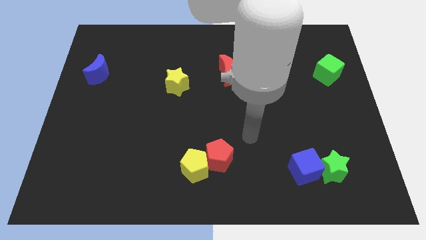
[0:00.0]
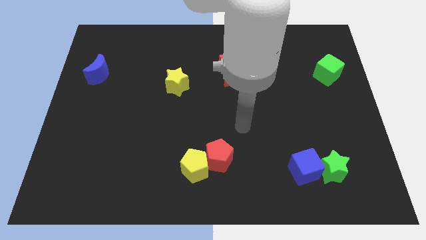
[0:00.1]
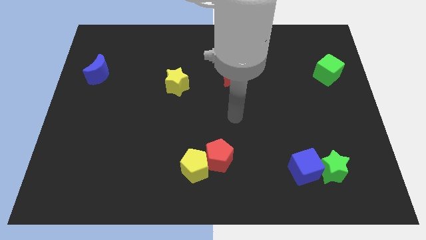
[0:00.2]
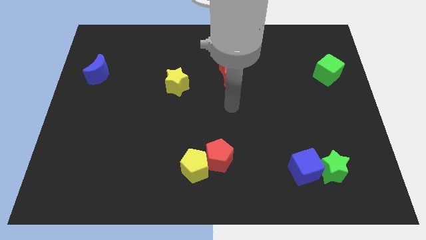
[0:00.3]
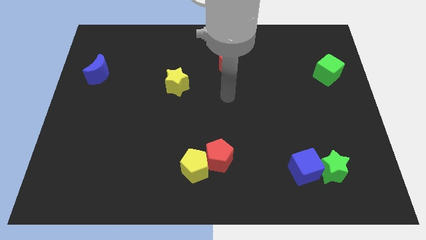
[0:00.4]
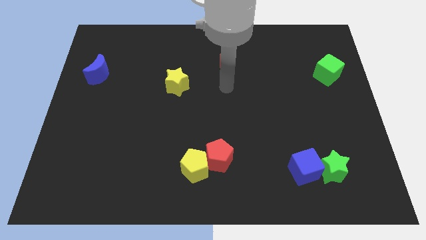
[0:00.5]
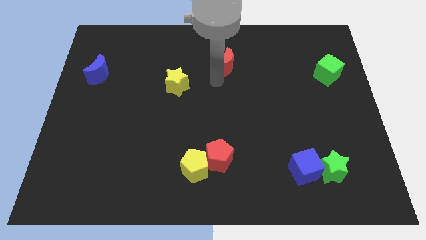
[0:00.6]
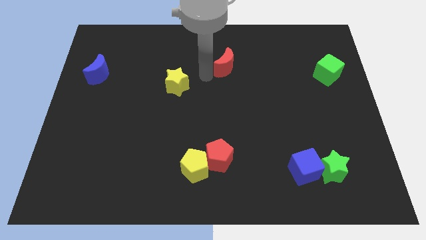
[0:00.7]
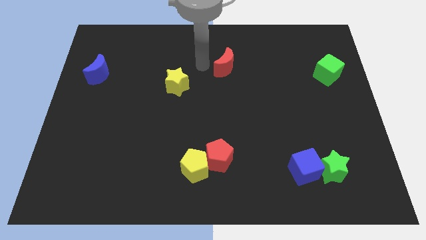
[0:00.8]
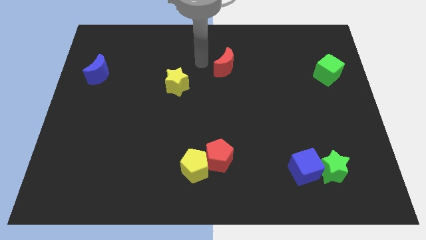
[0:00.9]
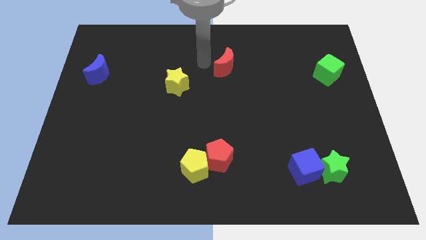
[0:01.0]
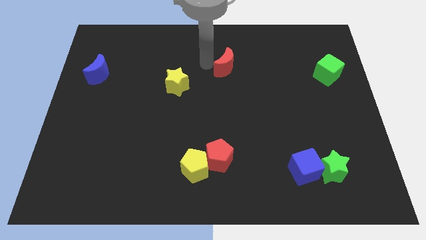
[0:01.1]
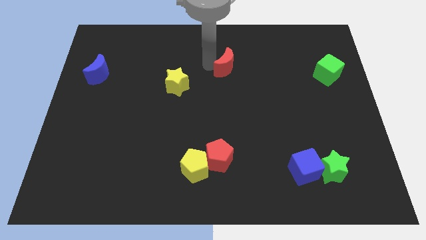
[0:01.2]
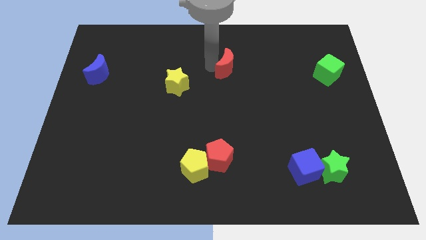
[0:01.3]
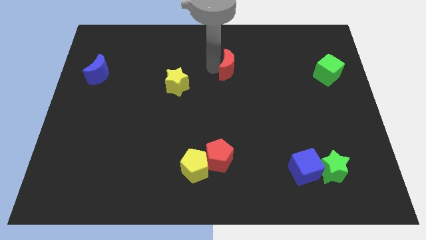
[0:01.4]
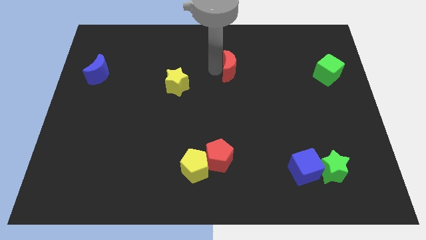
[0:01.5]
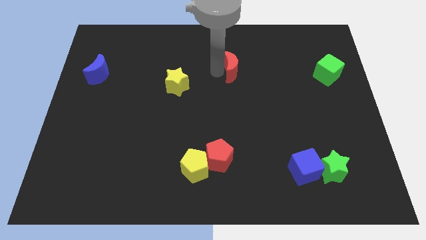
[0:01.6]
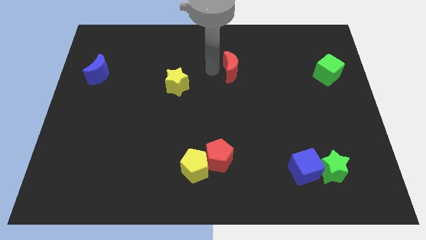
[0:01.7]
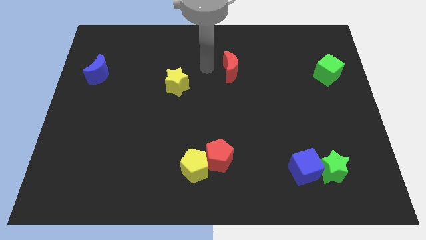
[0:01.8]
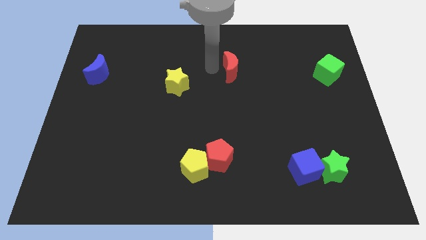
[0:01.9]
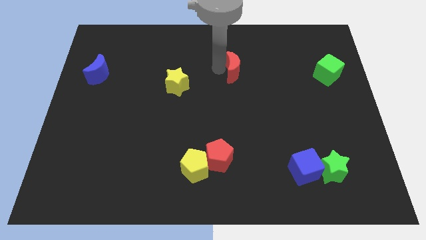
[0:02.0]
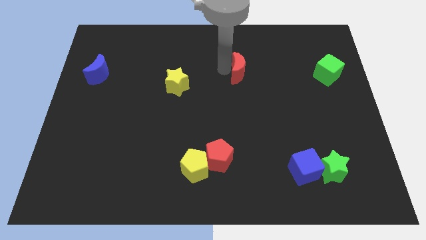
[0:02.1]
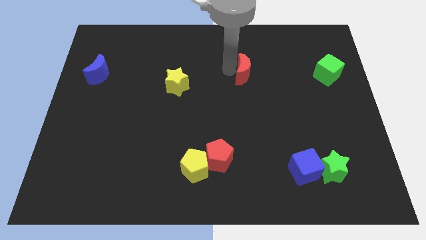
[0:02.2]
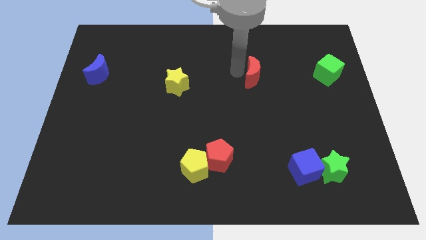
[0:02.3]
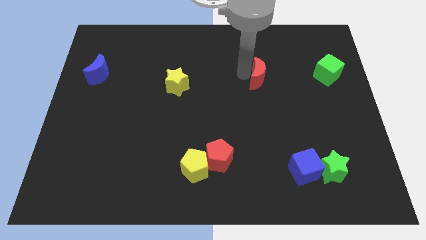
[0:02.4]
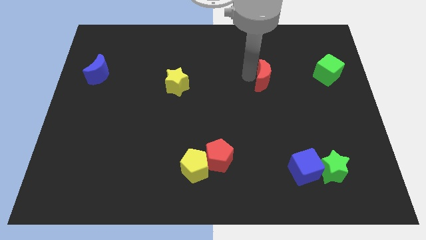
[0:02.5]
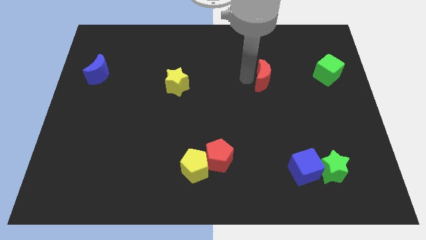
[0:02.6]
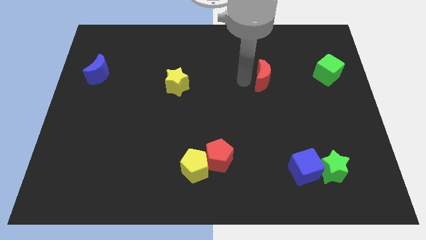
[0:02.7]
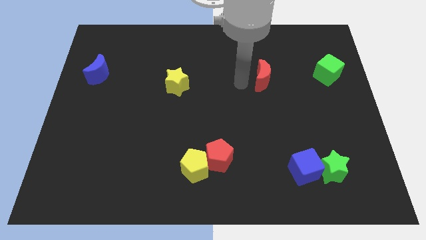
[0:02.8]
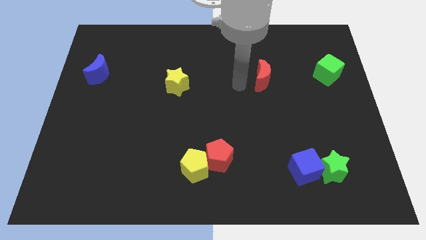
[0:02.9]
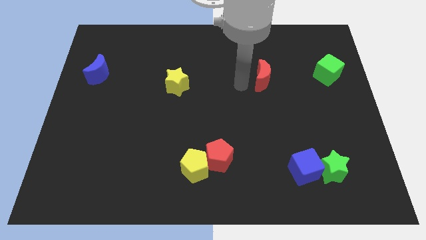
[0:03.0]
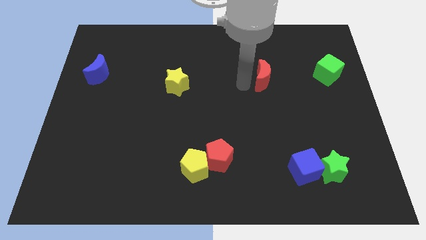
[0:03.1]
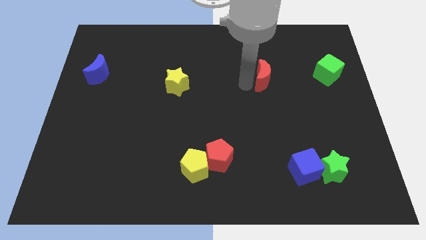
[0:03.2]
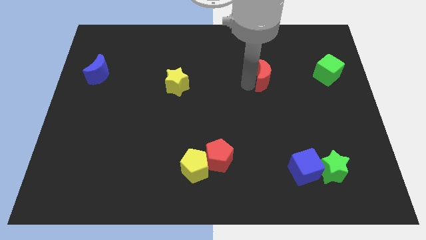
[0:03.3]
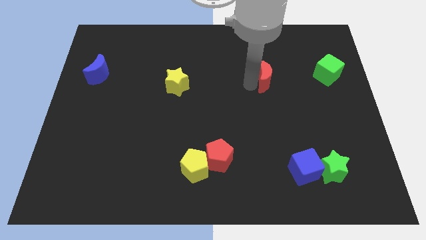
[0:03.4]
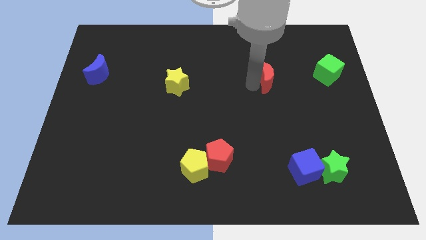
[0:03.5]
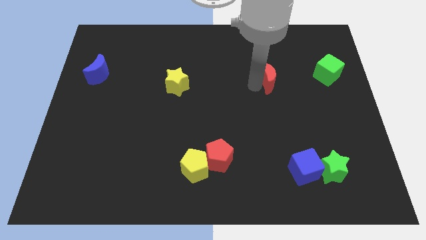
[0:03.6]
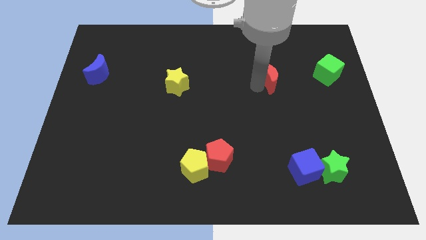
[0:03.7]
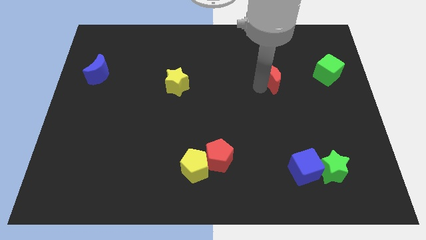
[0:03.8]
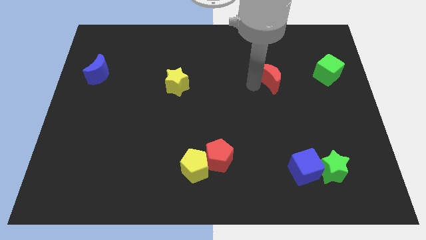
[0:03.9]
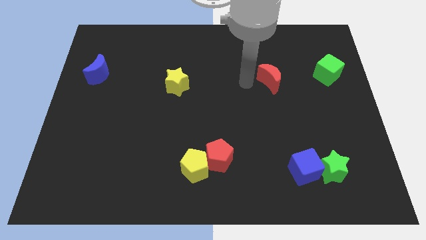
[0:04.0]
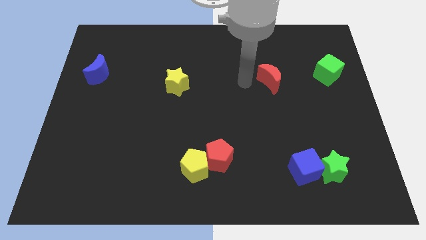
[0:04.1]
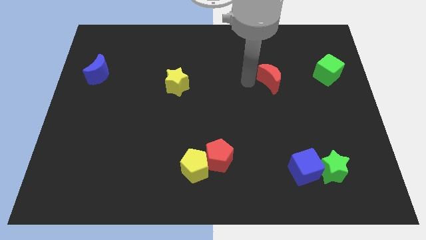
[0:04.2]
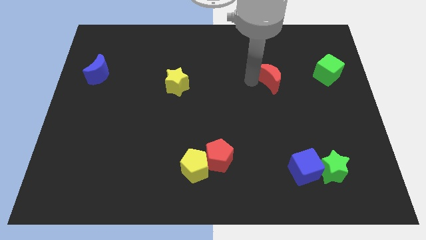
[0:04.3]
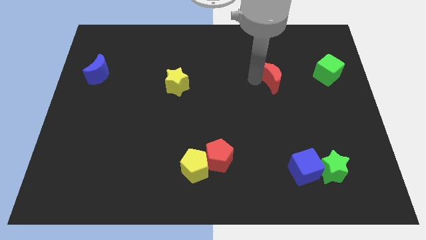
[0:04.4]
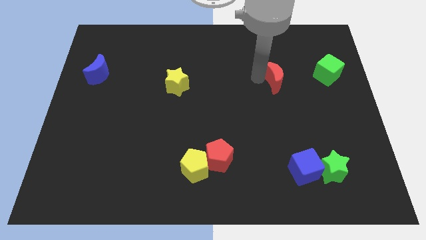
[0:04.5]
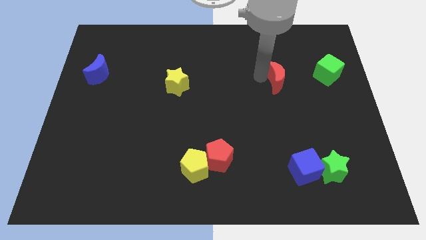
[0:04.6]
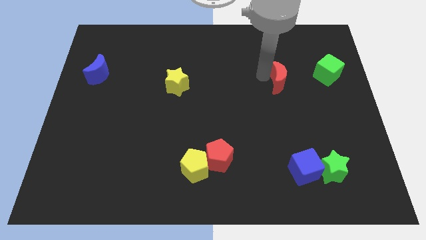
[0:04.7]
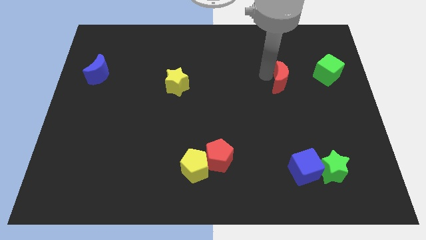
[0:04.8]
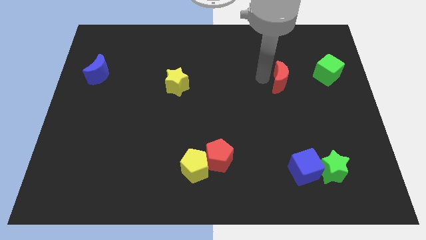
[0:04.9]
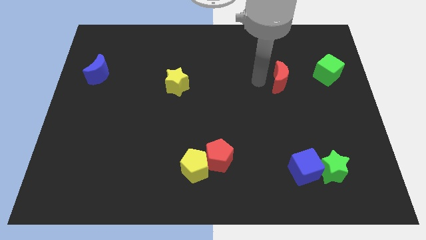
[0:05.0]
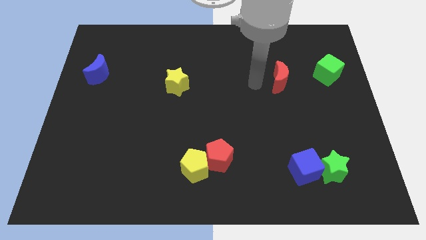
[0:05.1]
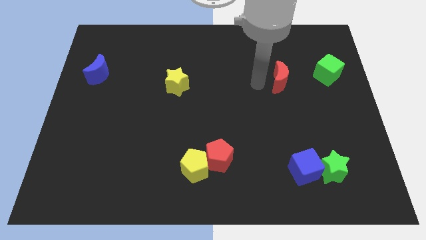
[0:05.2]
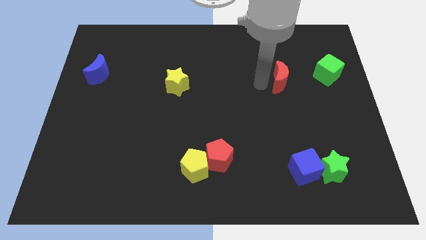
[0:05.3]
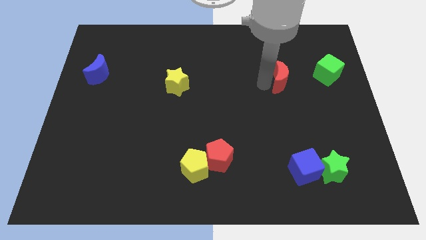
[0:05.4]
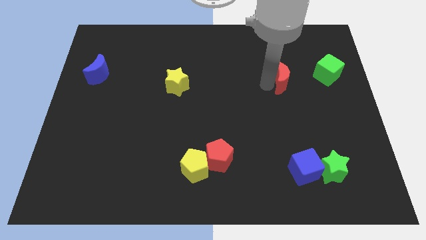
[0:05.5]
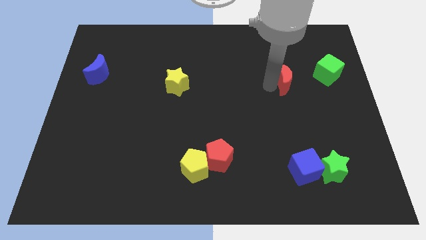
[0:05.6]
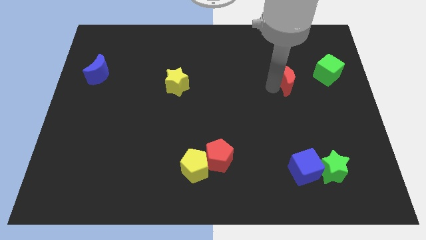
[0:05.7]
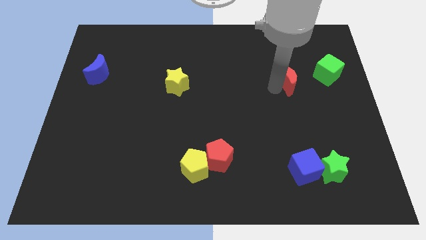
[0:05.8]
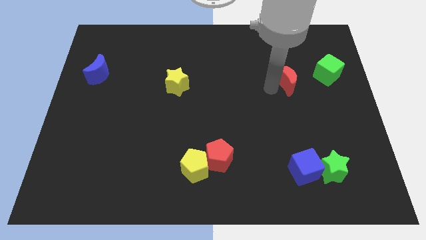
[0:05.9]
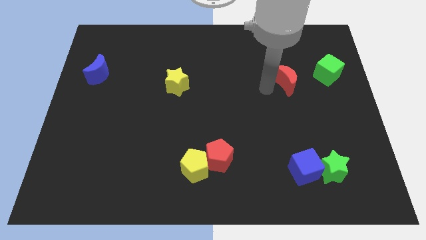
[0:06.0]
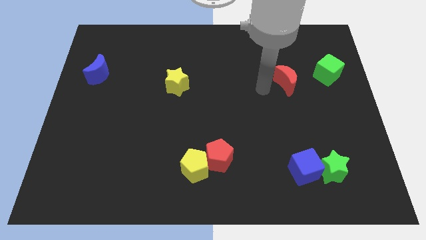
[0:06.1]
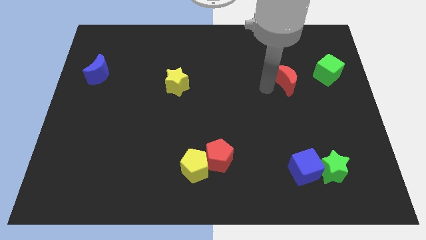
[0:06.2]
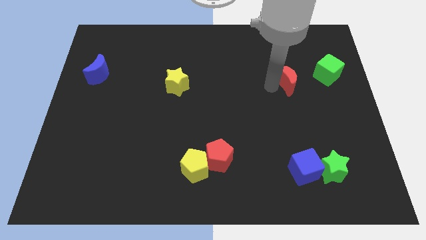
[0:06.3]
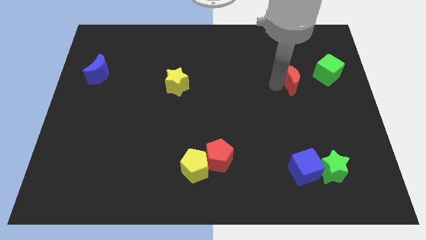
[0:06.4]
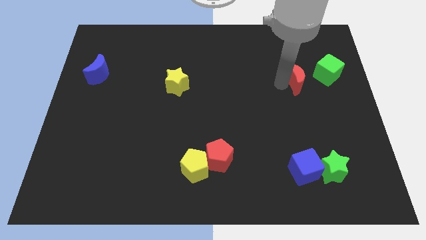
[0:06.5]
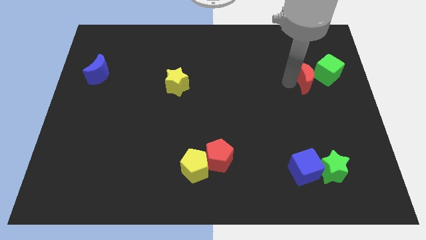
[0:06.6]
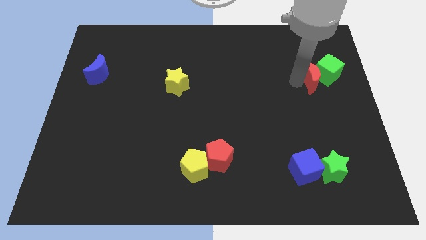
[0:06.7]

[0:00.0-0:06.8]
move the red moon close to the green cube

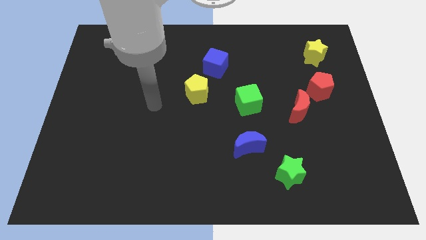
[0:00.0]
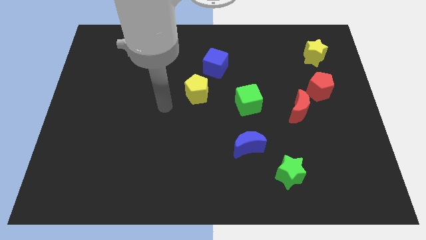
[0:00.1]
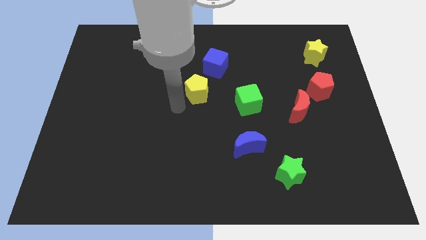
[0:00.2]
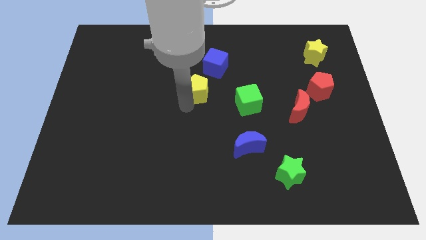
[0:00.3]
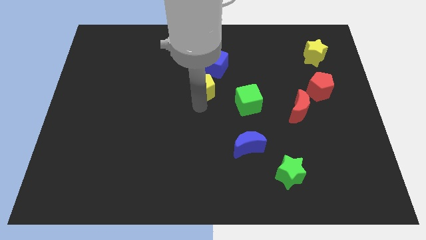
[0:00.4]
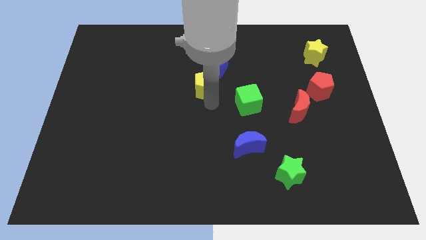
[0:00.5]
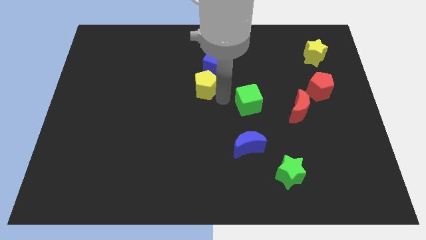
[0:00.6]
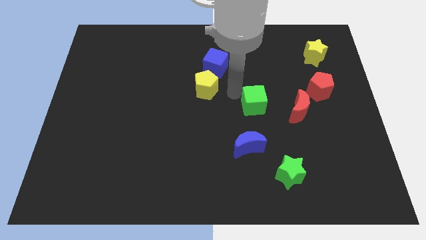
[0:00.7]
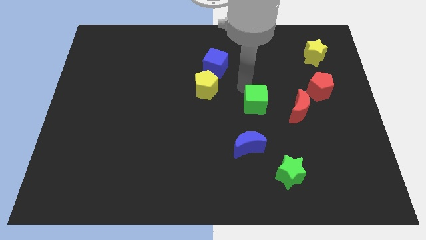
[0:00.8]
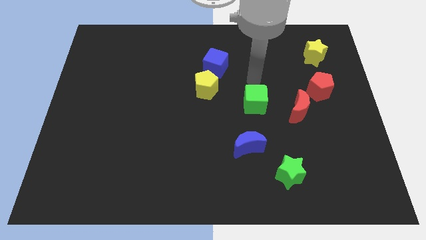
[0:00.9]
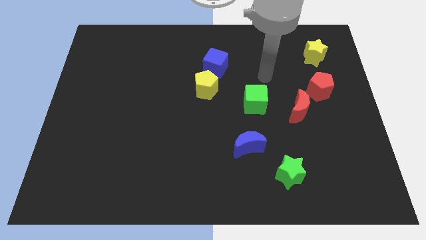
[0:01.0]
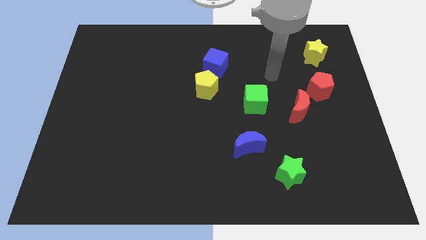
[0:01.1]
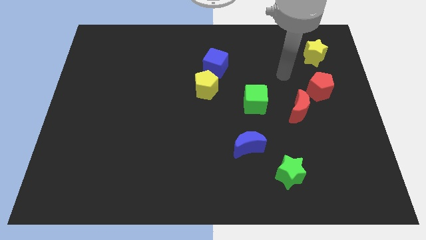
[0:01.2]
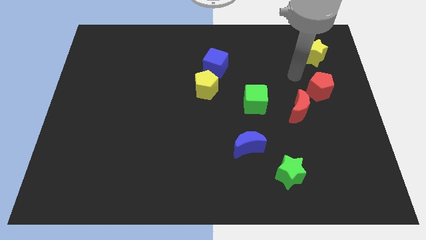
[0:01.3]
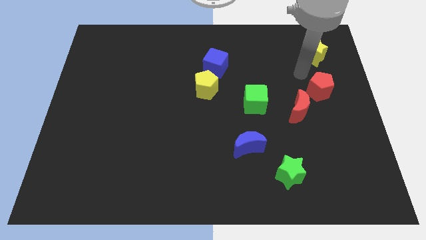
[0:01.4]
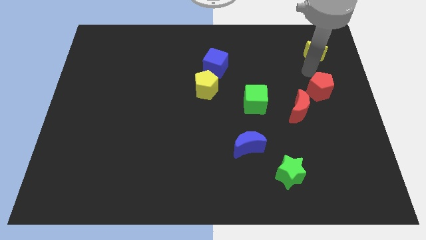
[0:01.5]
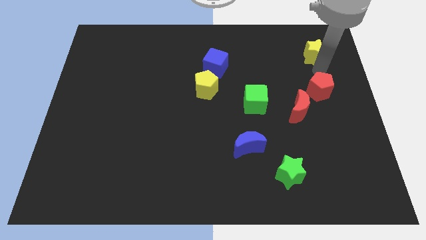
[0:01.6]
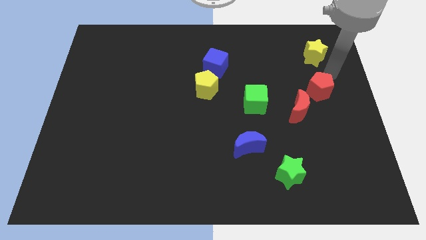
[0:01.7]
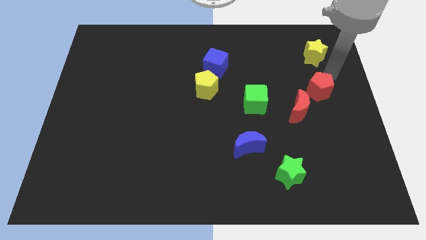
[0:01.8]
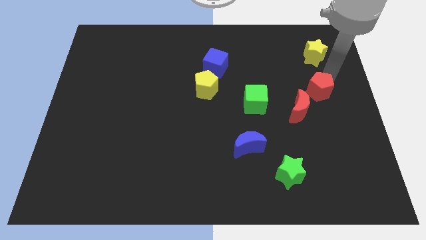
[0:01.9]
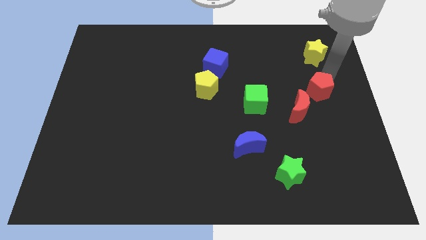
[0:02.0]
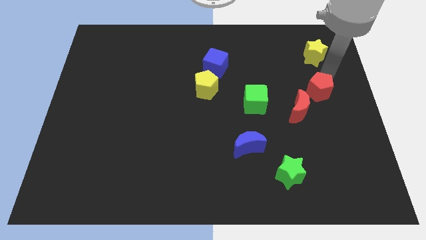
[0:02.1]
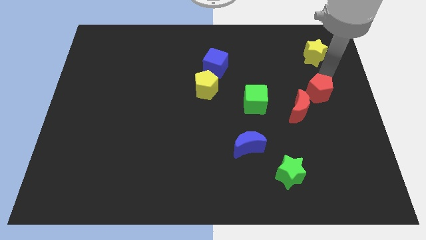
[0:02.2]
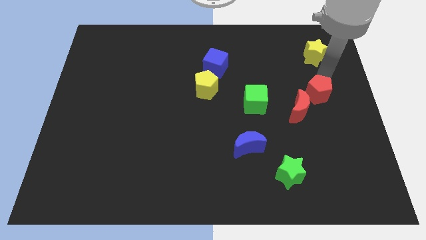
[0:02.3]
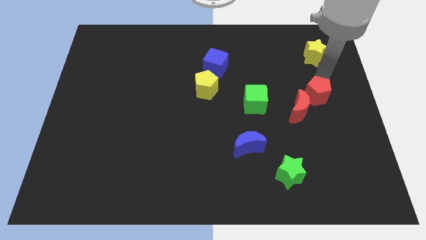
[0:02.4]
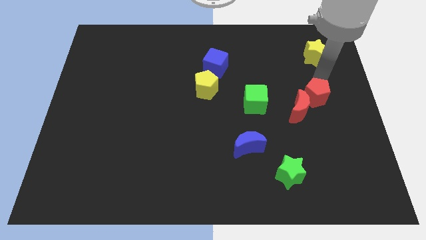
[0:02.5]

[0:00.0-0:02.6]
push the red pentagon towards the red moon
